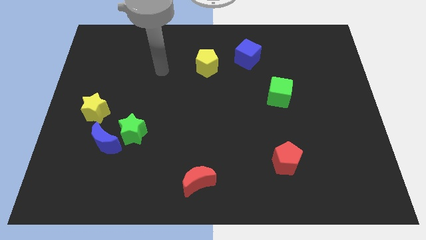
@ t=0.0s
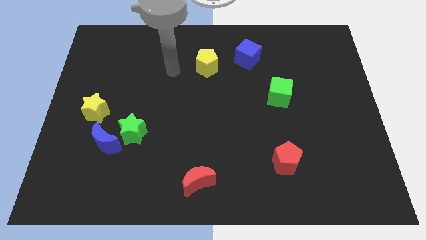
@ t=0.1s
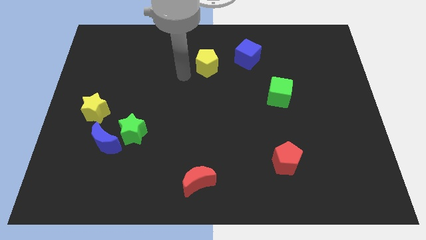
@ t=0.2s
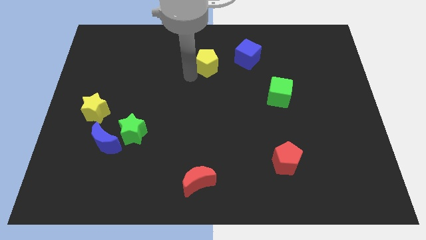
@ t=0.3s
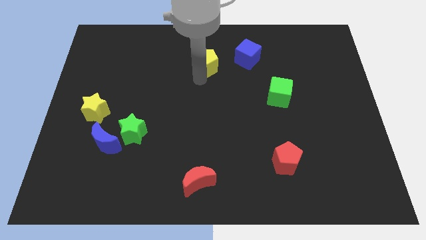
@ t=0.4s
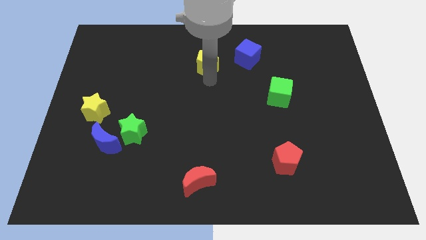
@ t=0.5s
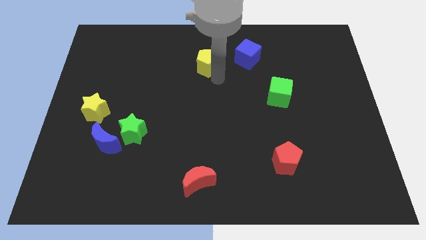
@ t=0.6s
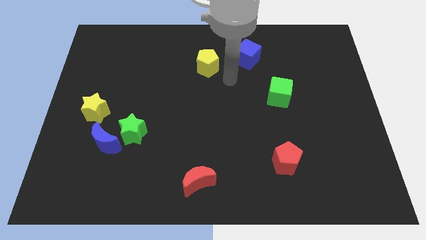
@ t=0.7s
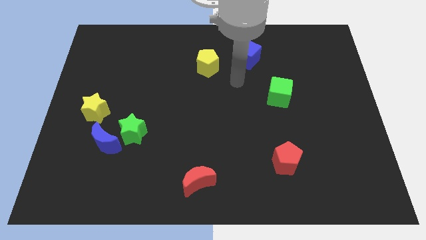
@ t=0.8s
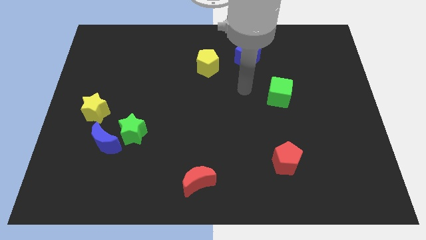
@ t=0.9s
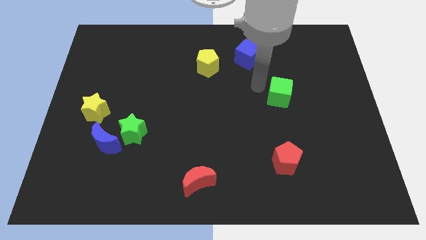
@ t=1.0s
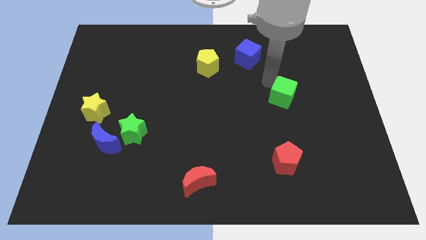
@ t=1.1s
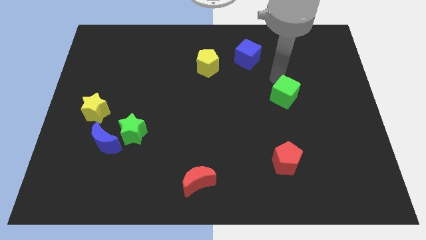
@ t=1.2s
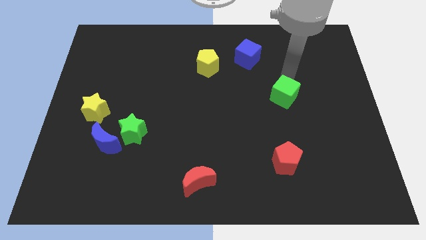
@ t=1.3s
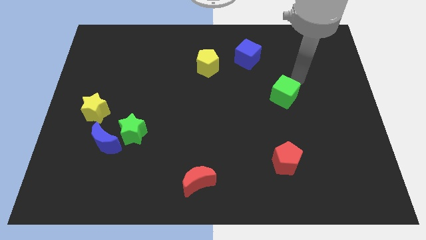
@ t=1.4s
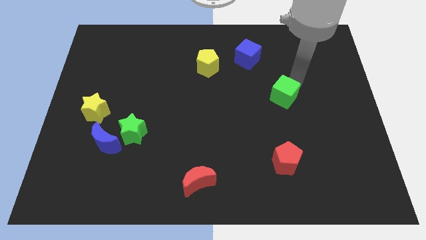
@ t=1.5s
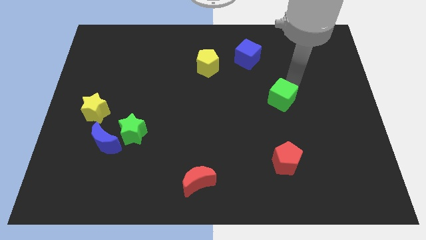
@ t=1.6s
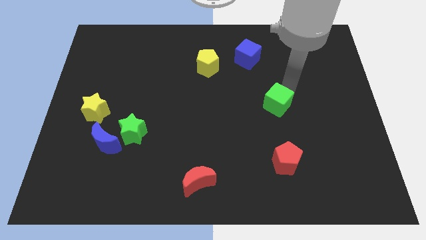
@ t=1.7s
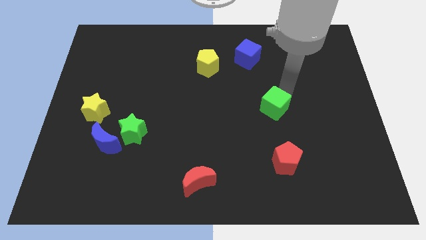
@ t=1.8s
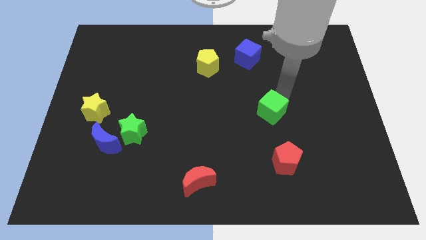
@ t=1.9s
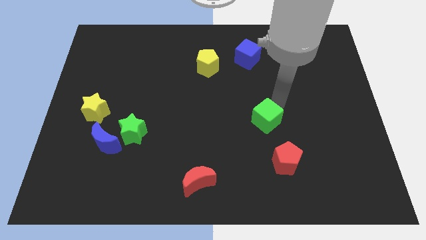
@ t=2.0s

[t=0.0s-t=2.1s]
move the green cube a little down and left

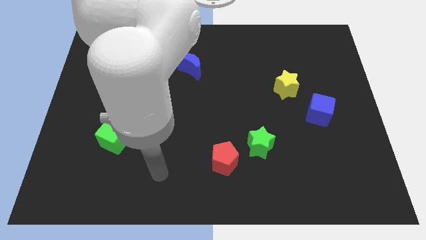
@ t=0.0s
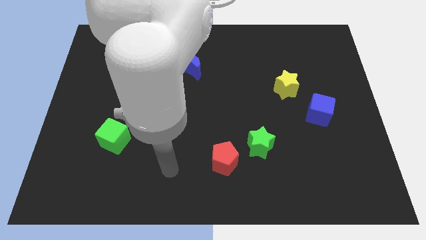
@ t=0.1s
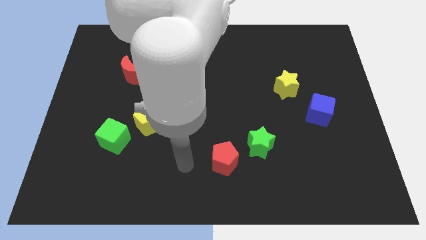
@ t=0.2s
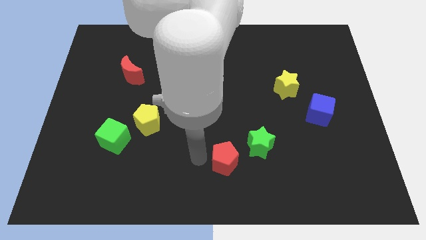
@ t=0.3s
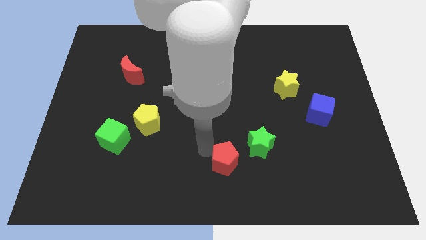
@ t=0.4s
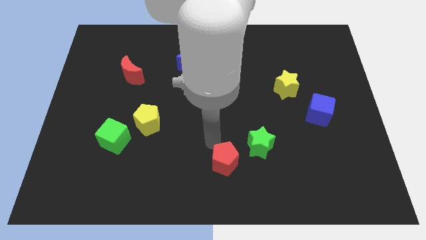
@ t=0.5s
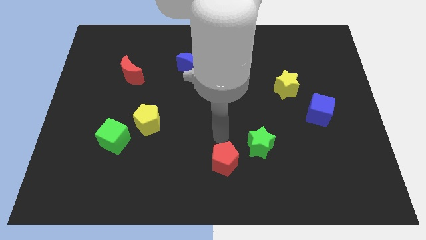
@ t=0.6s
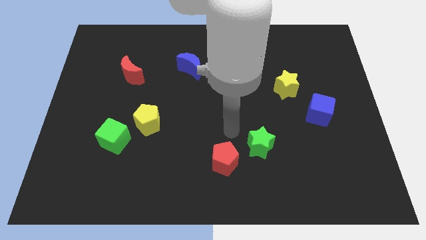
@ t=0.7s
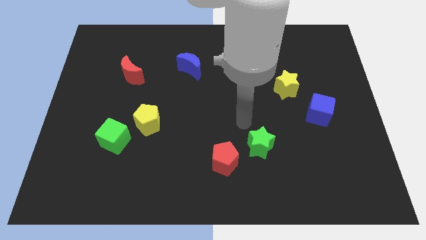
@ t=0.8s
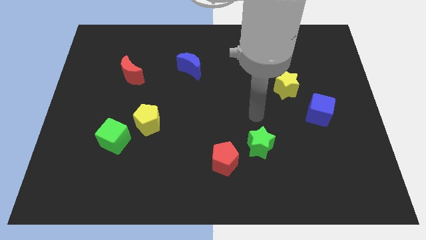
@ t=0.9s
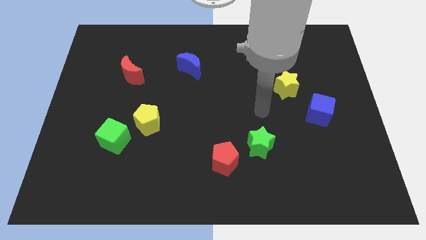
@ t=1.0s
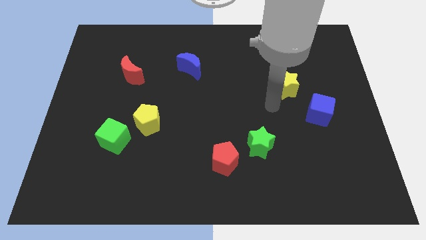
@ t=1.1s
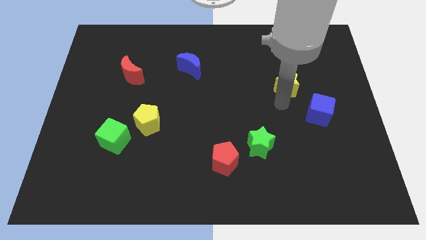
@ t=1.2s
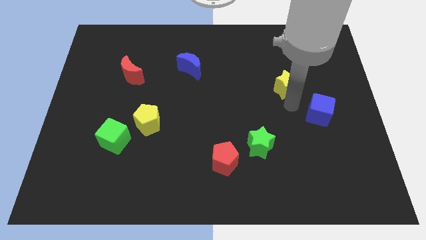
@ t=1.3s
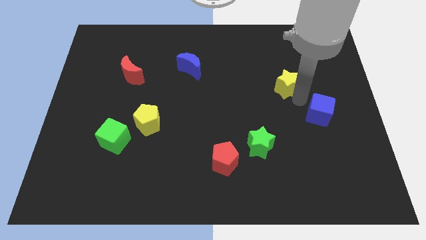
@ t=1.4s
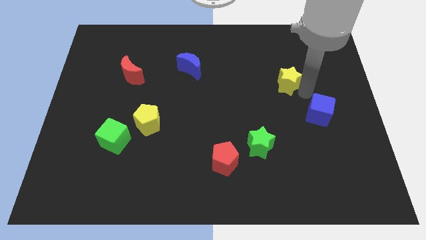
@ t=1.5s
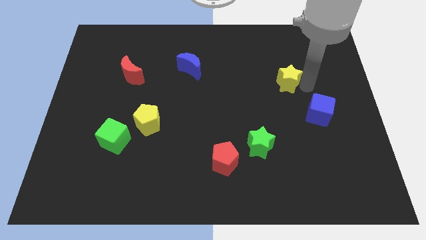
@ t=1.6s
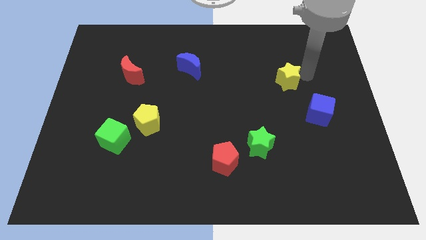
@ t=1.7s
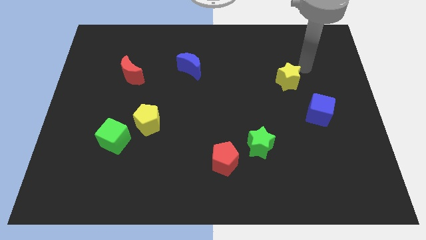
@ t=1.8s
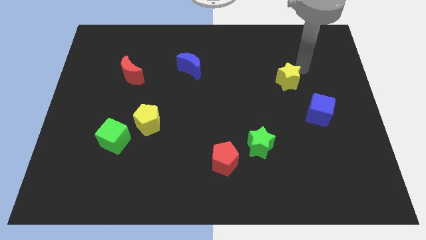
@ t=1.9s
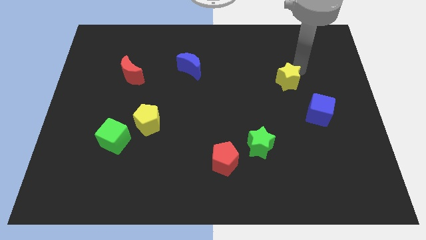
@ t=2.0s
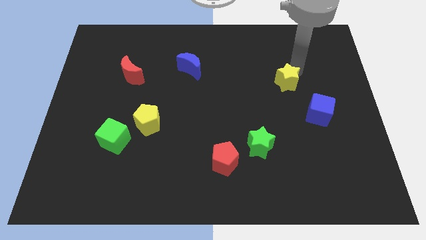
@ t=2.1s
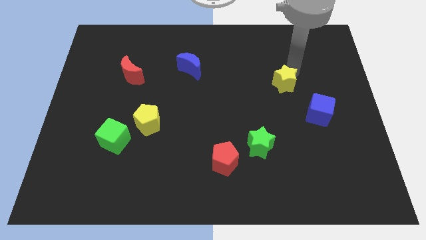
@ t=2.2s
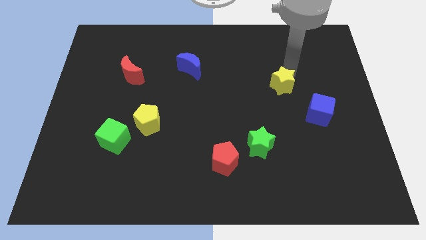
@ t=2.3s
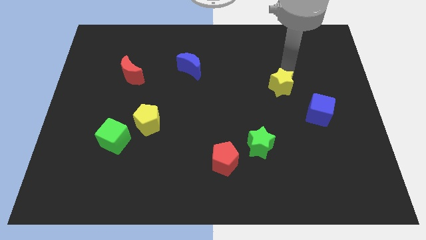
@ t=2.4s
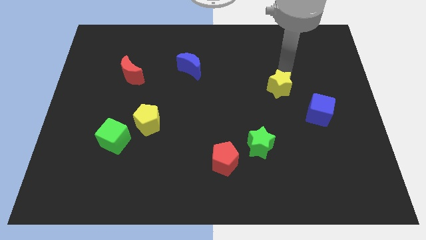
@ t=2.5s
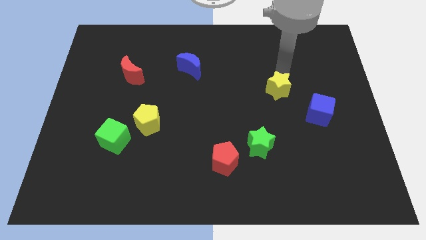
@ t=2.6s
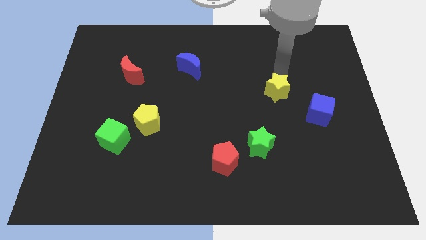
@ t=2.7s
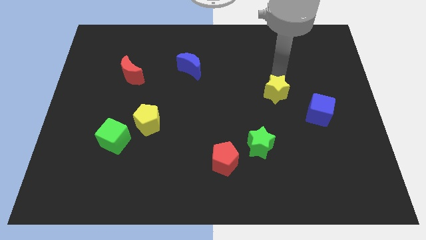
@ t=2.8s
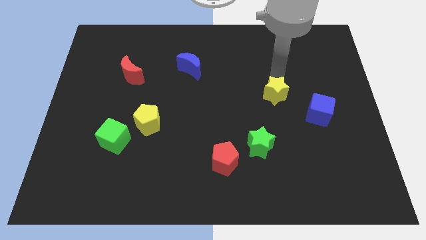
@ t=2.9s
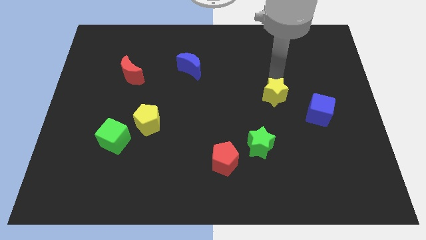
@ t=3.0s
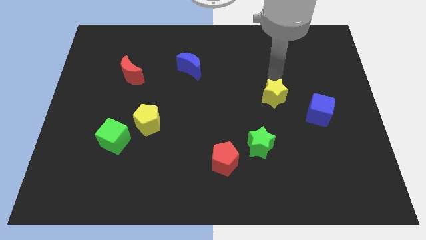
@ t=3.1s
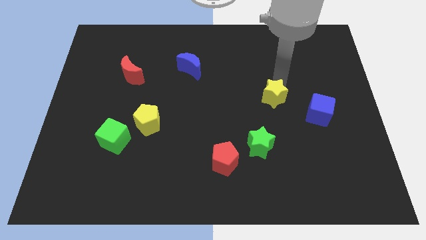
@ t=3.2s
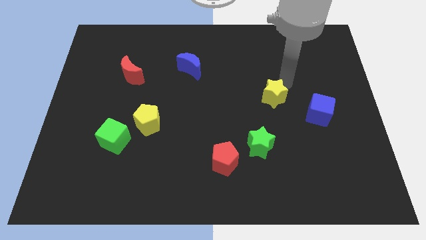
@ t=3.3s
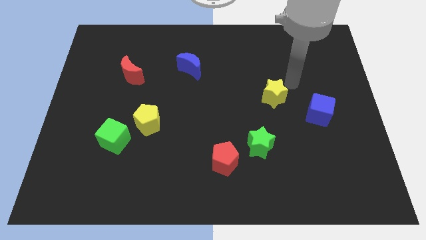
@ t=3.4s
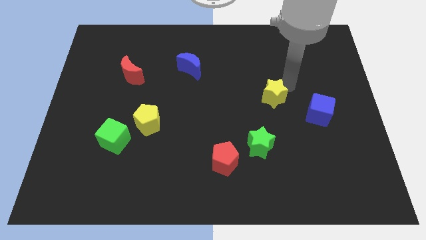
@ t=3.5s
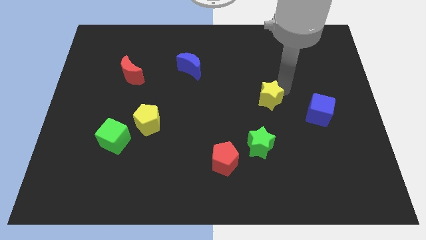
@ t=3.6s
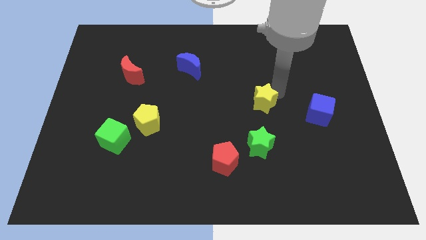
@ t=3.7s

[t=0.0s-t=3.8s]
slide the yellow star diagonally down and to the left a little bit

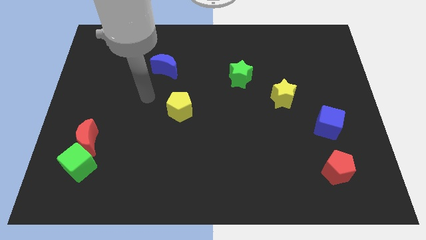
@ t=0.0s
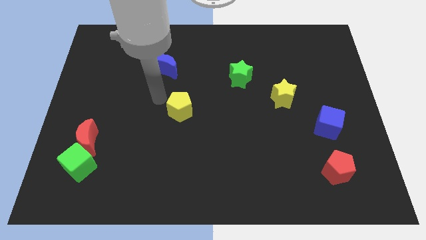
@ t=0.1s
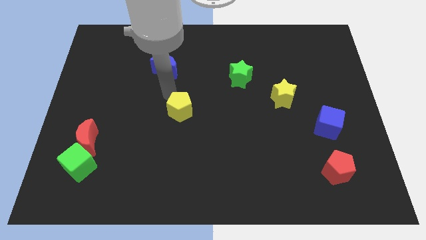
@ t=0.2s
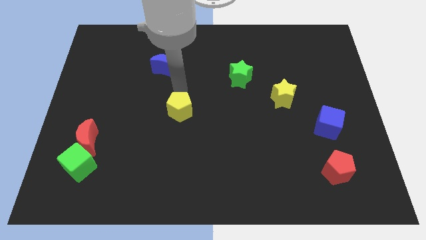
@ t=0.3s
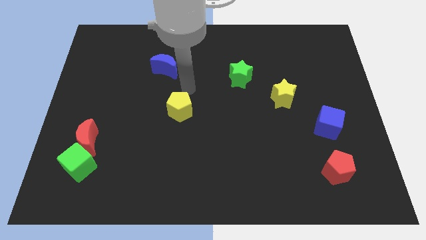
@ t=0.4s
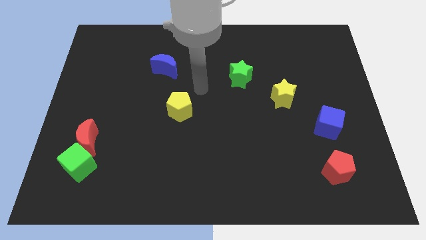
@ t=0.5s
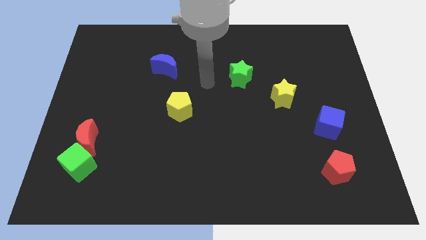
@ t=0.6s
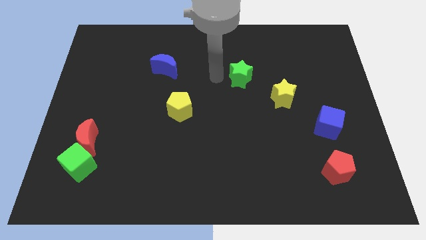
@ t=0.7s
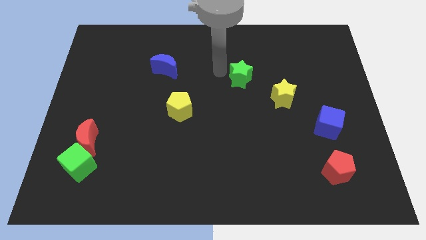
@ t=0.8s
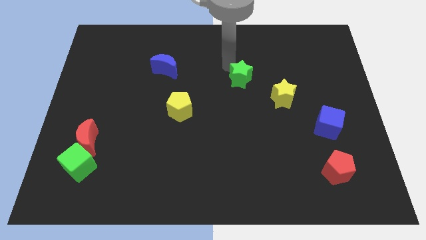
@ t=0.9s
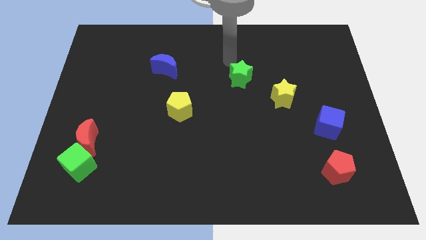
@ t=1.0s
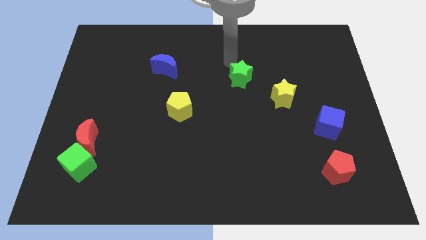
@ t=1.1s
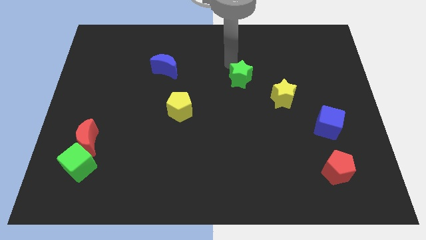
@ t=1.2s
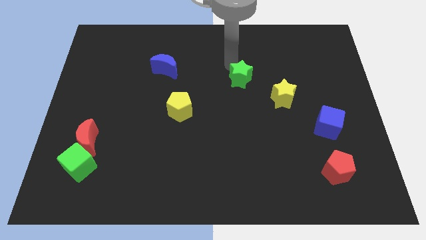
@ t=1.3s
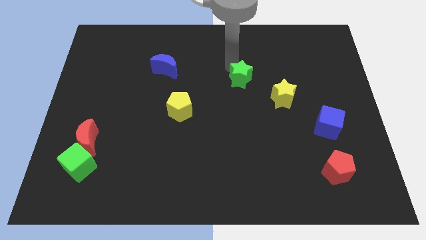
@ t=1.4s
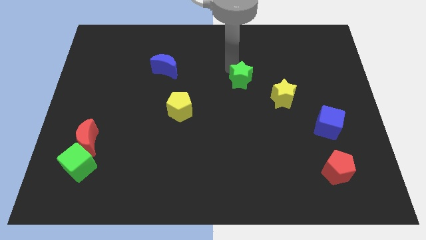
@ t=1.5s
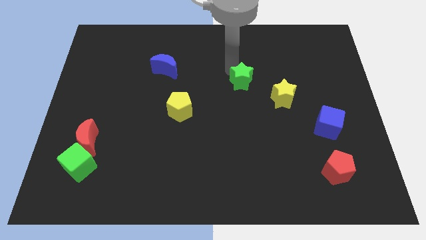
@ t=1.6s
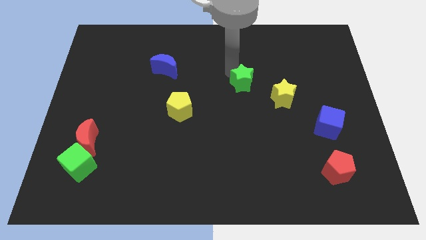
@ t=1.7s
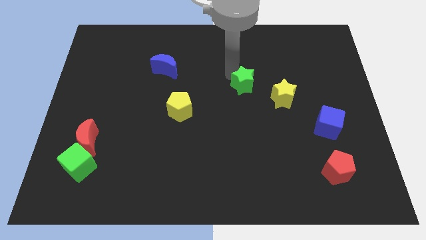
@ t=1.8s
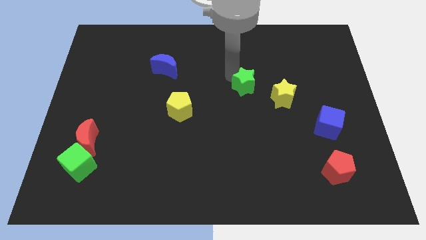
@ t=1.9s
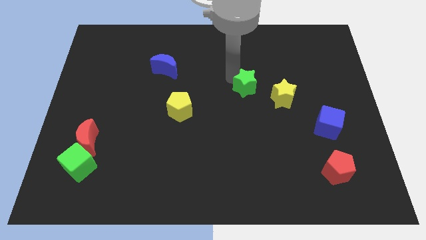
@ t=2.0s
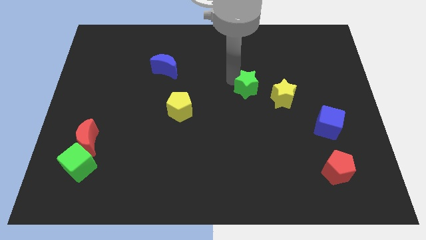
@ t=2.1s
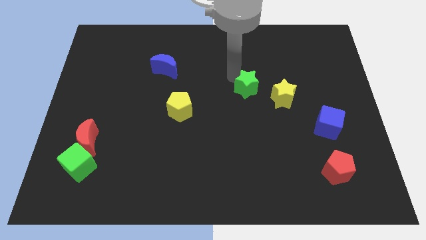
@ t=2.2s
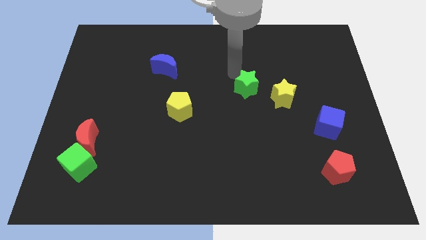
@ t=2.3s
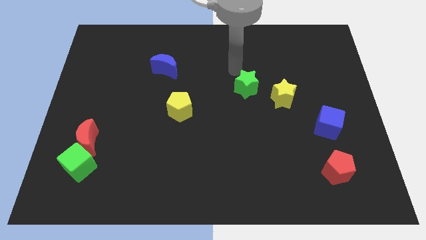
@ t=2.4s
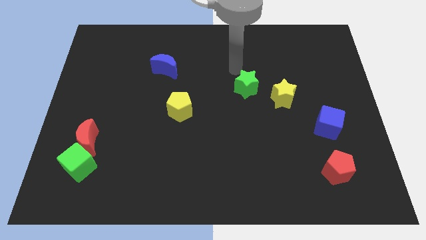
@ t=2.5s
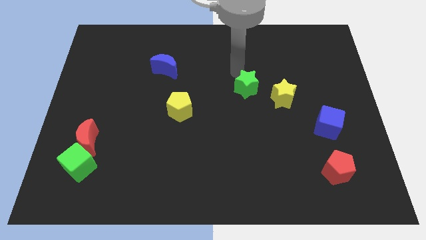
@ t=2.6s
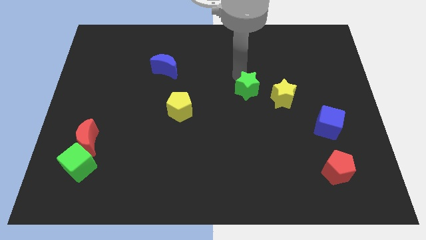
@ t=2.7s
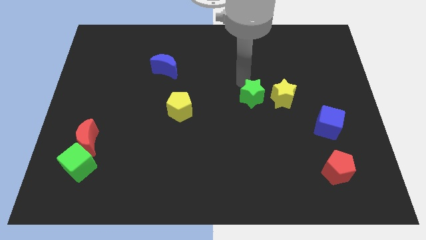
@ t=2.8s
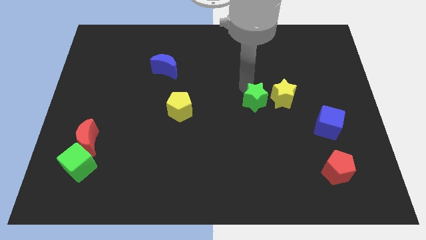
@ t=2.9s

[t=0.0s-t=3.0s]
slightly push the green star downwards and then right
